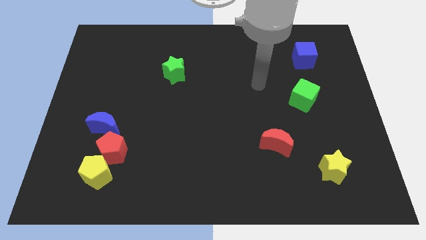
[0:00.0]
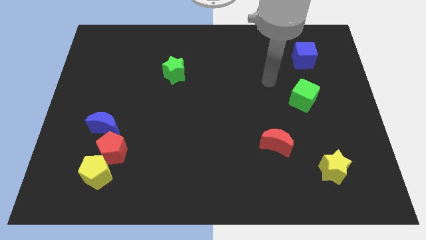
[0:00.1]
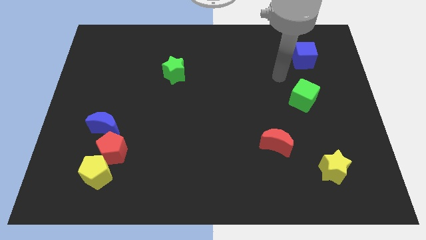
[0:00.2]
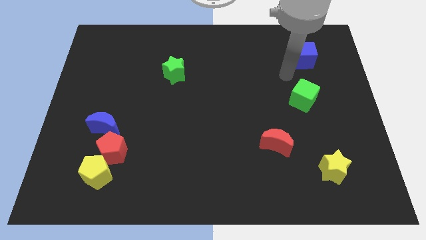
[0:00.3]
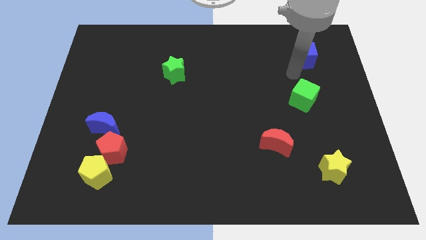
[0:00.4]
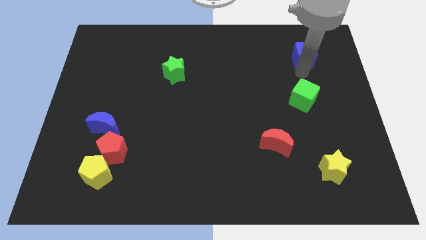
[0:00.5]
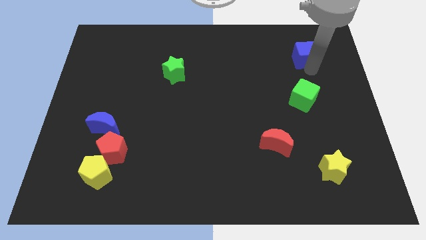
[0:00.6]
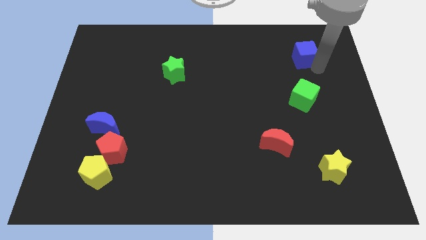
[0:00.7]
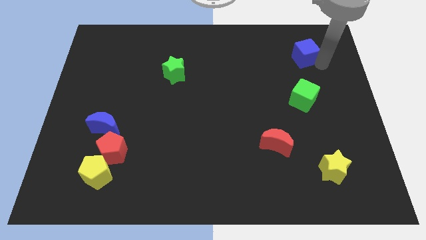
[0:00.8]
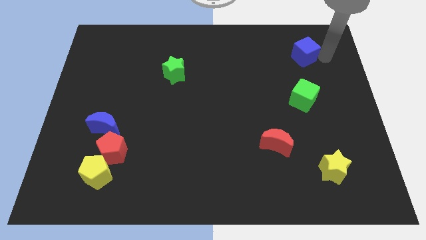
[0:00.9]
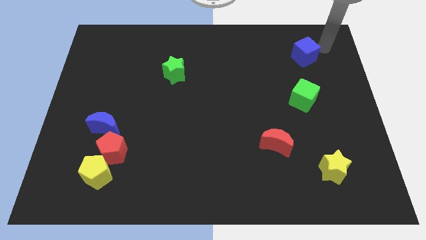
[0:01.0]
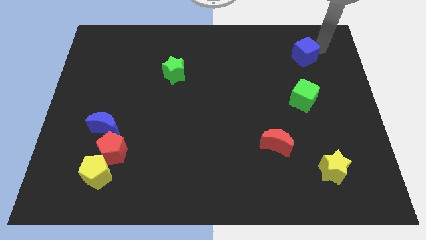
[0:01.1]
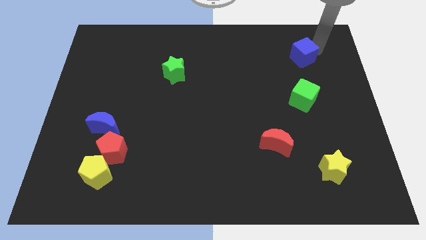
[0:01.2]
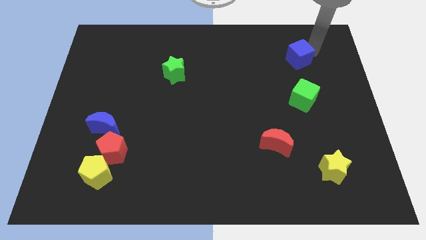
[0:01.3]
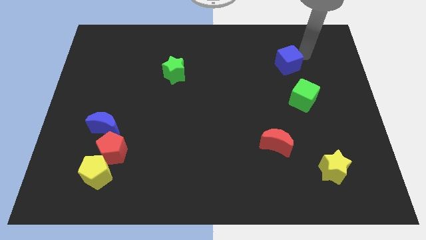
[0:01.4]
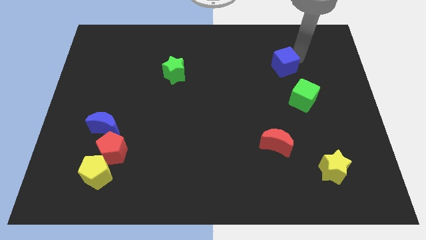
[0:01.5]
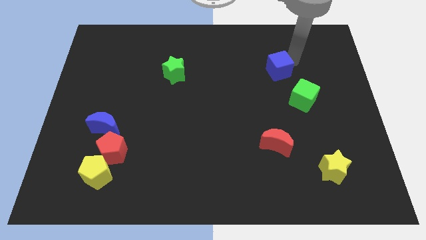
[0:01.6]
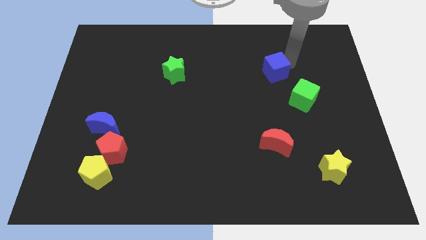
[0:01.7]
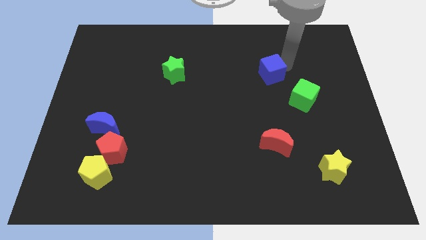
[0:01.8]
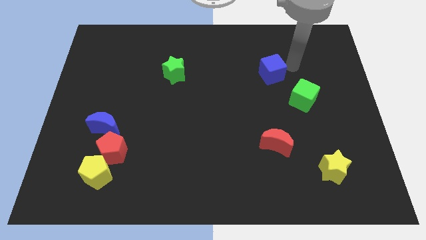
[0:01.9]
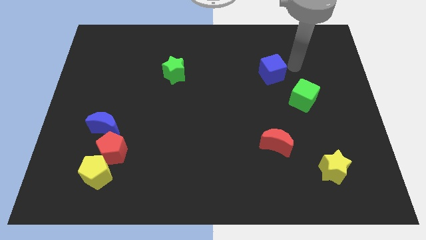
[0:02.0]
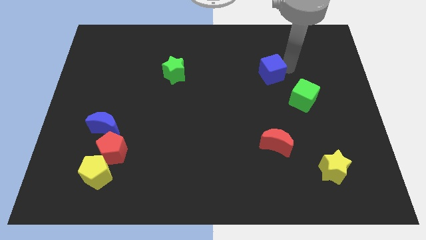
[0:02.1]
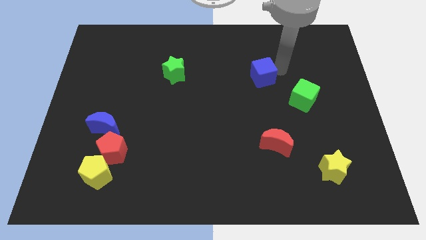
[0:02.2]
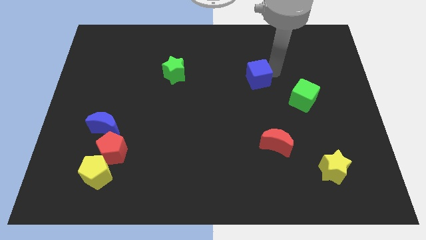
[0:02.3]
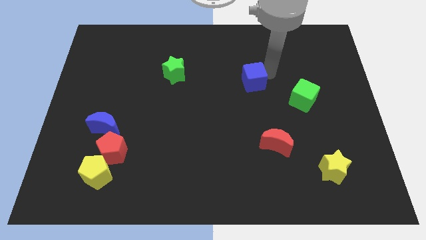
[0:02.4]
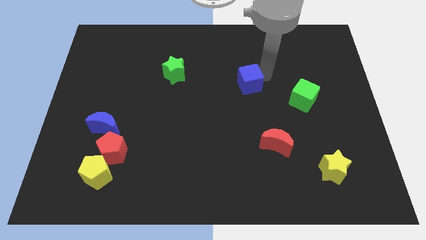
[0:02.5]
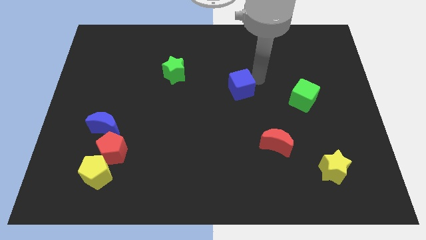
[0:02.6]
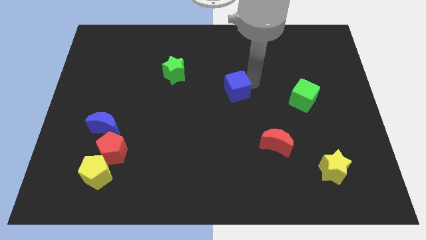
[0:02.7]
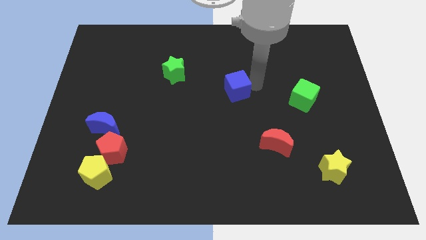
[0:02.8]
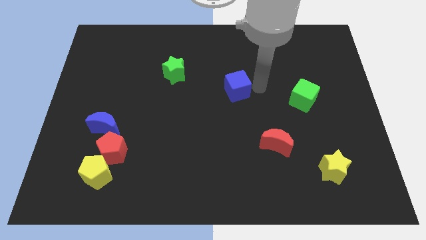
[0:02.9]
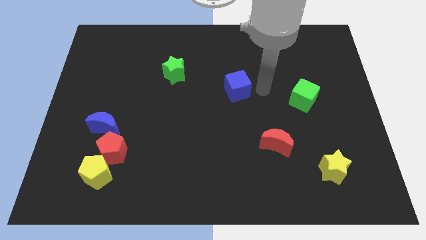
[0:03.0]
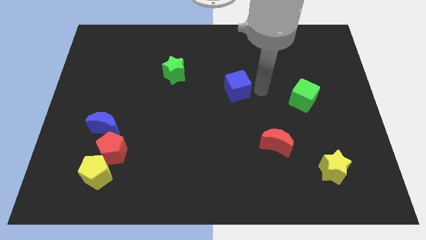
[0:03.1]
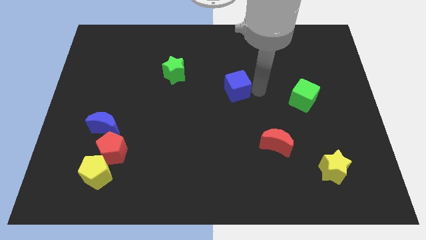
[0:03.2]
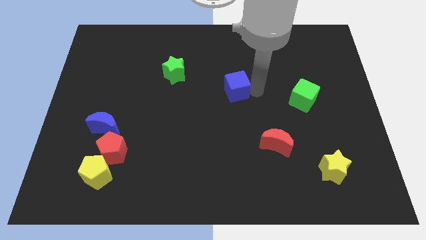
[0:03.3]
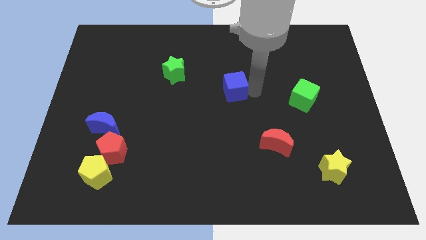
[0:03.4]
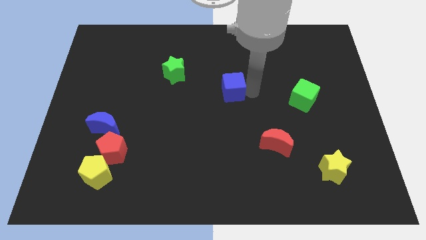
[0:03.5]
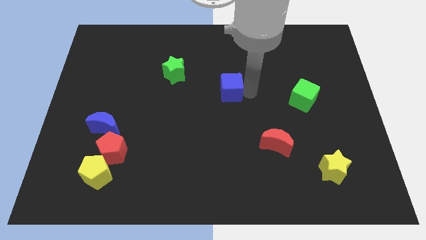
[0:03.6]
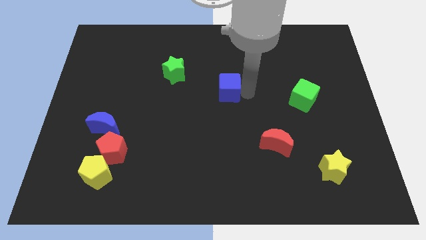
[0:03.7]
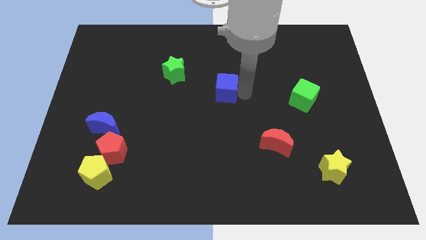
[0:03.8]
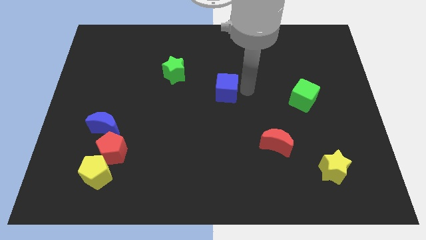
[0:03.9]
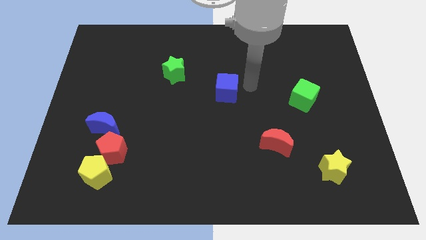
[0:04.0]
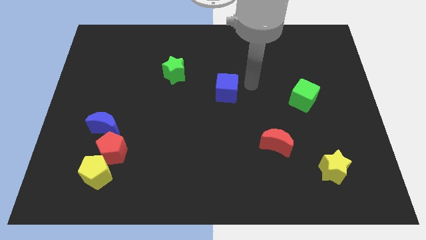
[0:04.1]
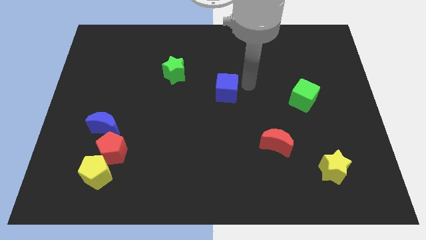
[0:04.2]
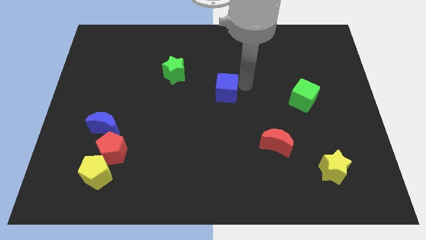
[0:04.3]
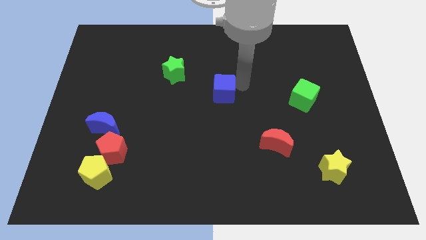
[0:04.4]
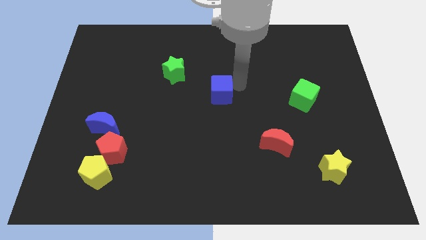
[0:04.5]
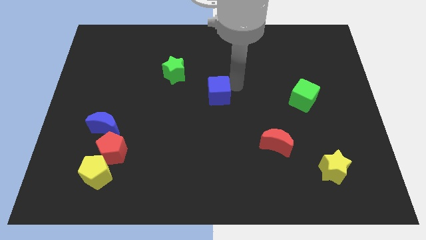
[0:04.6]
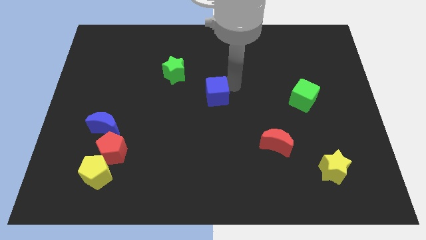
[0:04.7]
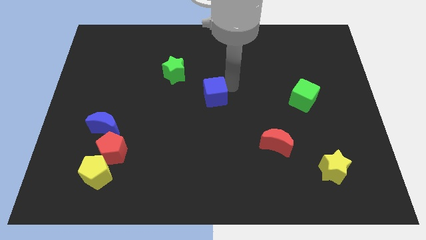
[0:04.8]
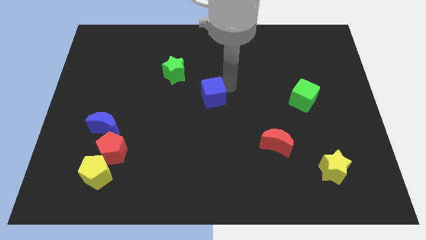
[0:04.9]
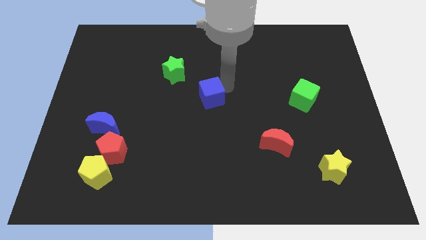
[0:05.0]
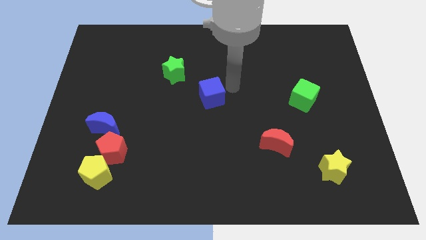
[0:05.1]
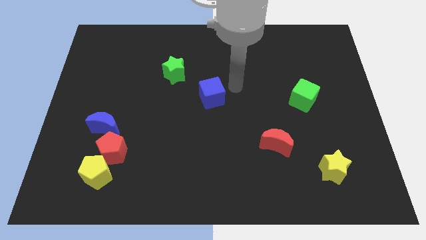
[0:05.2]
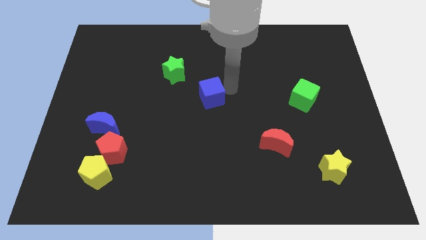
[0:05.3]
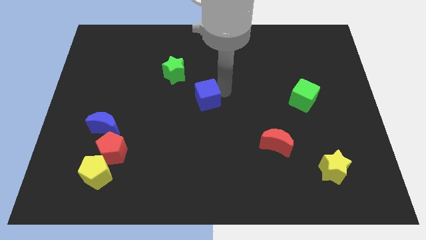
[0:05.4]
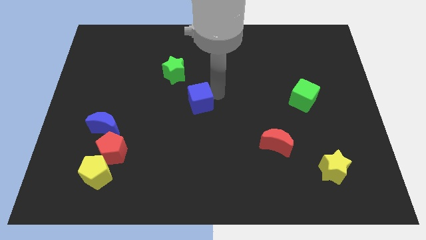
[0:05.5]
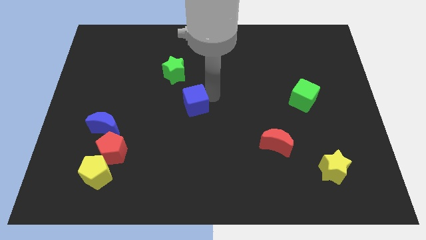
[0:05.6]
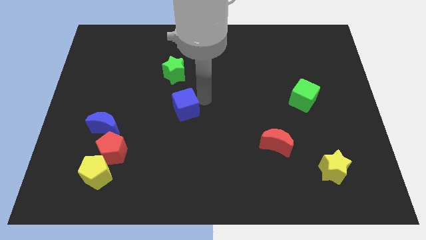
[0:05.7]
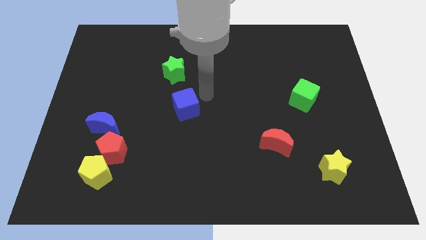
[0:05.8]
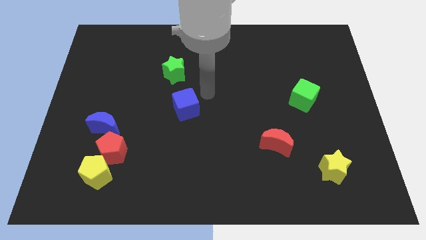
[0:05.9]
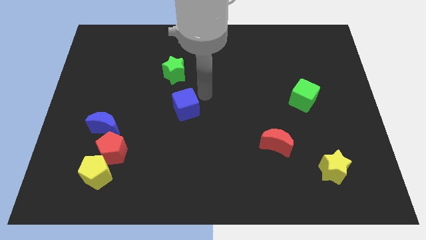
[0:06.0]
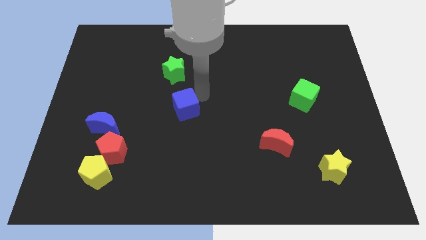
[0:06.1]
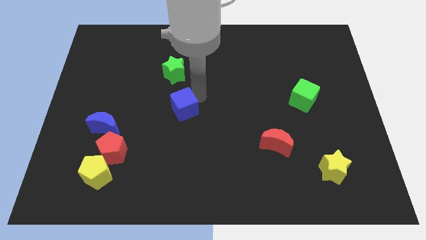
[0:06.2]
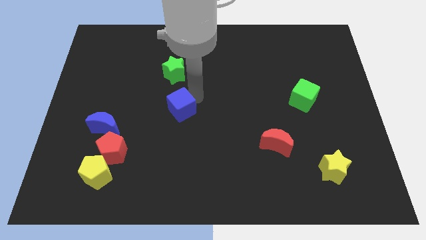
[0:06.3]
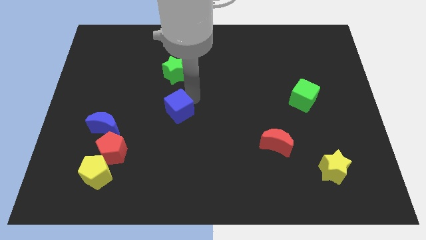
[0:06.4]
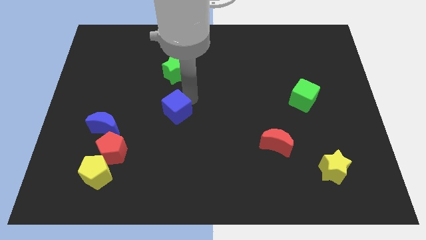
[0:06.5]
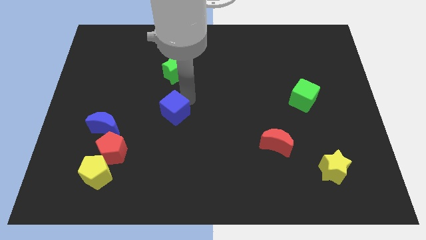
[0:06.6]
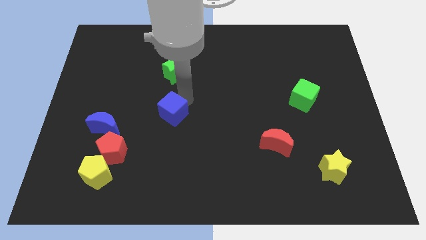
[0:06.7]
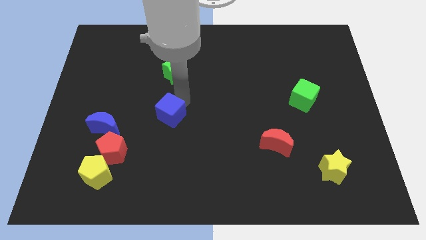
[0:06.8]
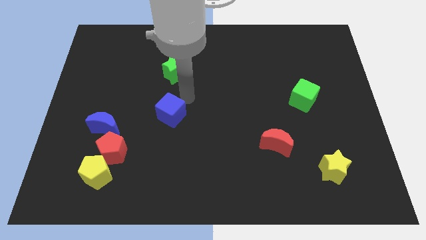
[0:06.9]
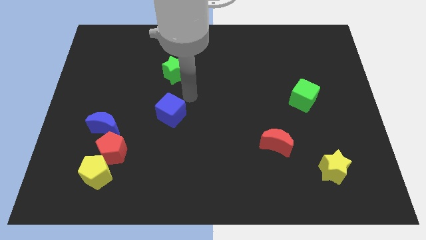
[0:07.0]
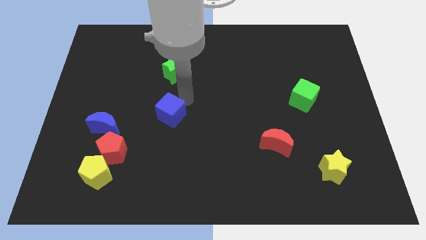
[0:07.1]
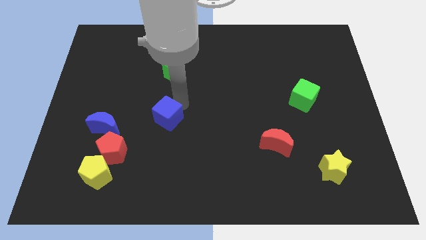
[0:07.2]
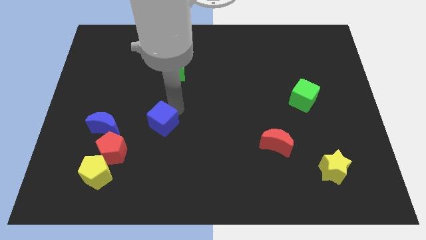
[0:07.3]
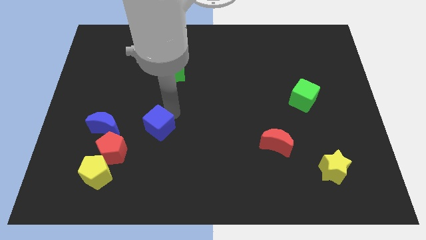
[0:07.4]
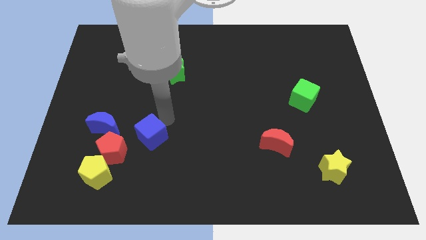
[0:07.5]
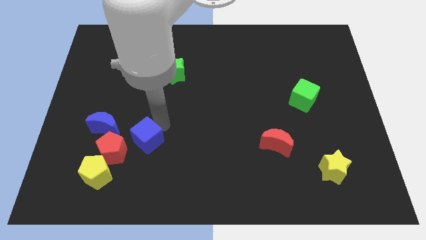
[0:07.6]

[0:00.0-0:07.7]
slide the blue cube to the top right side of the yellow pentagon
